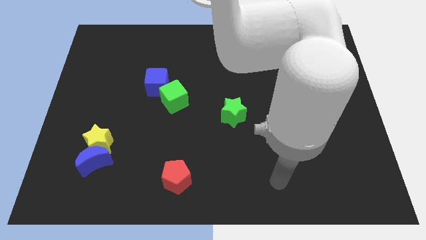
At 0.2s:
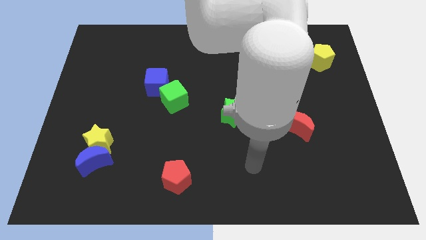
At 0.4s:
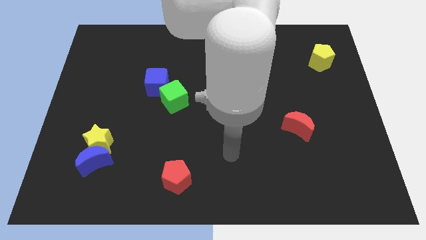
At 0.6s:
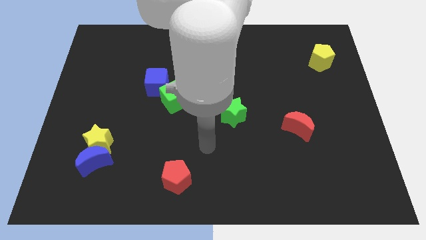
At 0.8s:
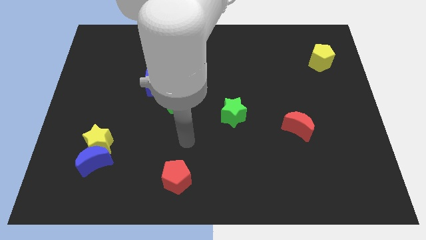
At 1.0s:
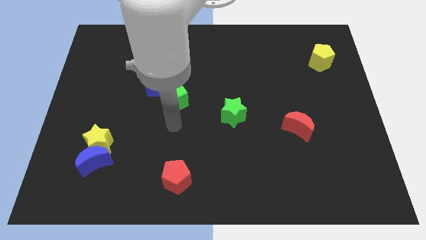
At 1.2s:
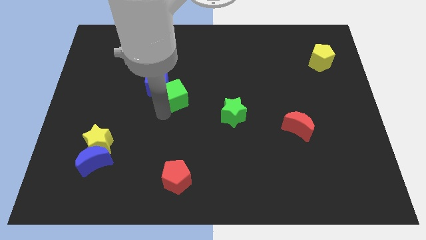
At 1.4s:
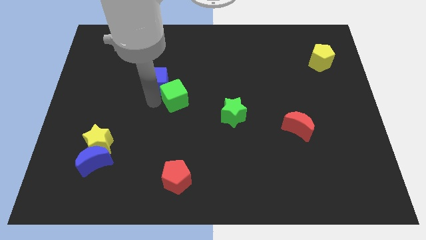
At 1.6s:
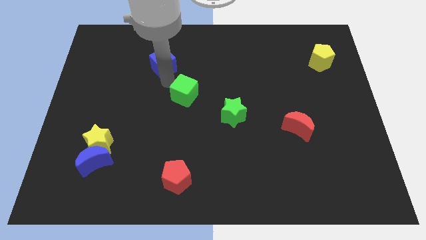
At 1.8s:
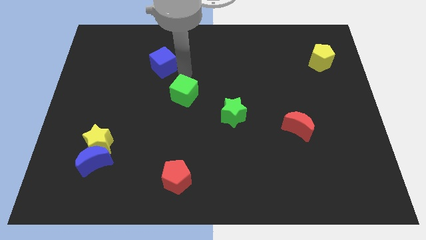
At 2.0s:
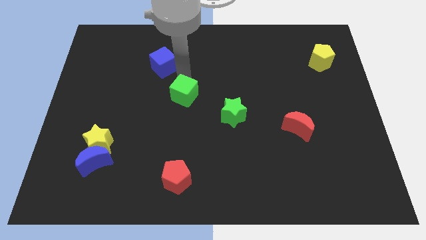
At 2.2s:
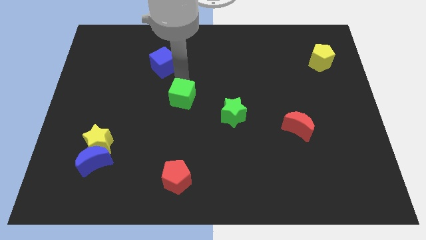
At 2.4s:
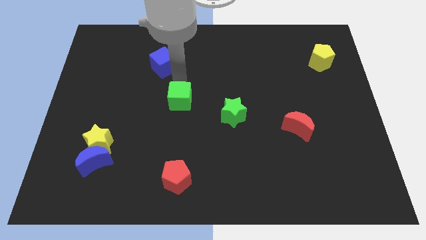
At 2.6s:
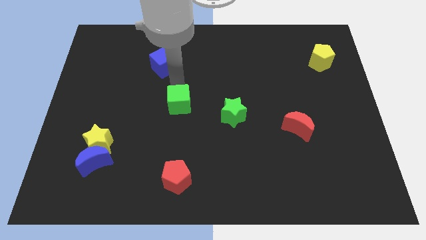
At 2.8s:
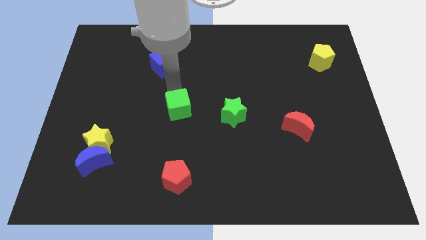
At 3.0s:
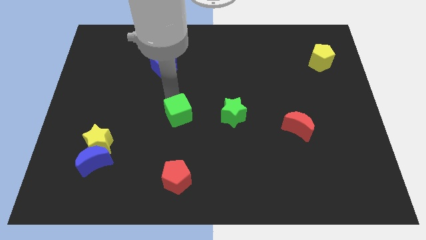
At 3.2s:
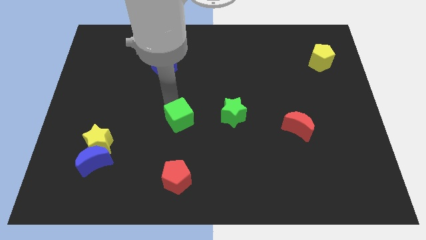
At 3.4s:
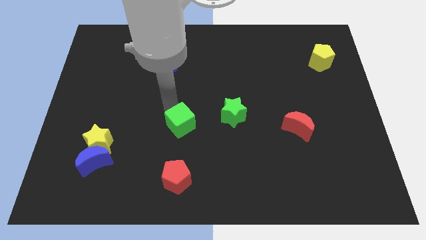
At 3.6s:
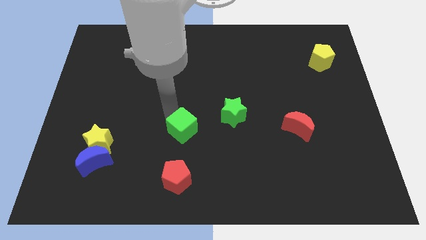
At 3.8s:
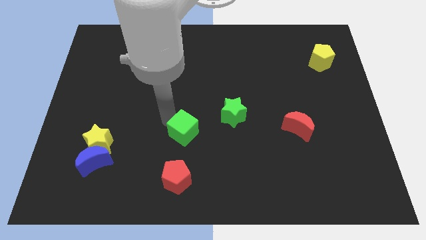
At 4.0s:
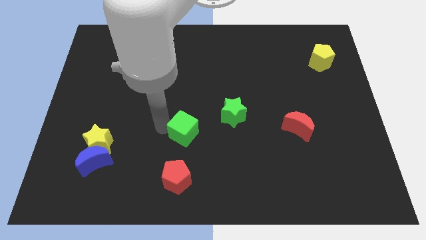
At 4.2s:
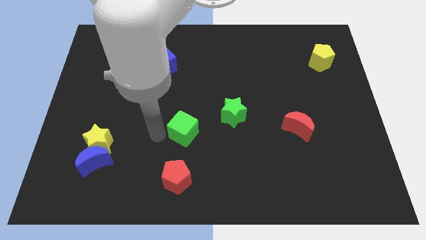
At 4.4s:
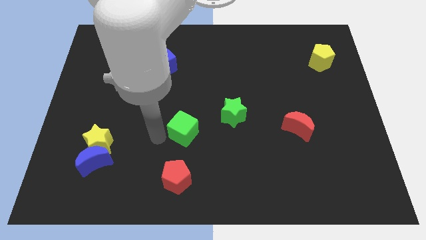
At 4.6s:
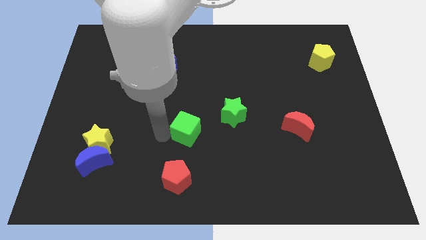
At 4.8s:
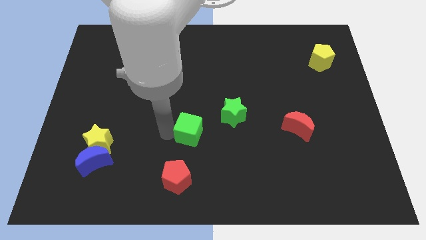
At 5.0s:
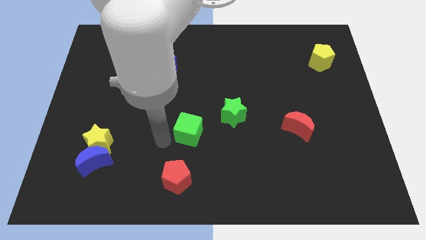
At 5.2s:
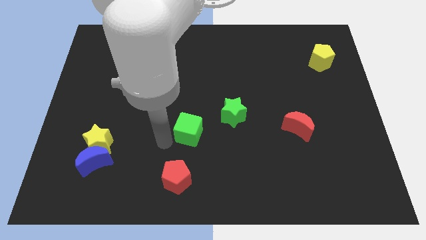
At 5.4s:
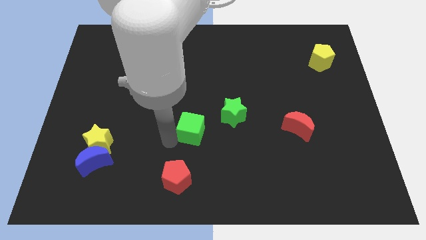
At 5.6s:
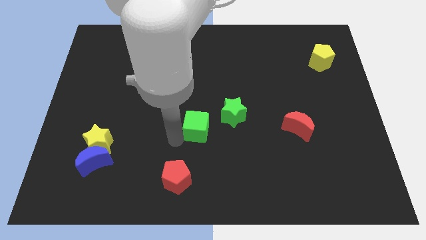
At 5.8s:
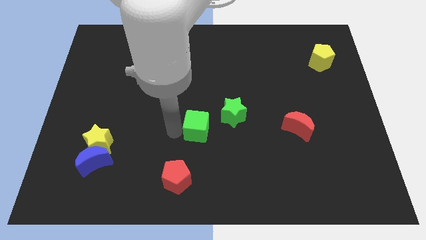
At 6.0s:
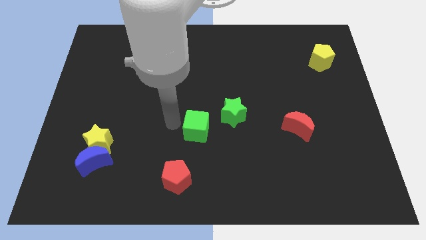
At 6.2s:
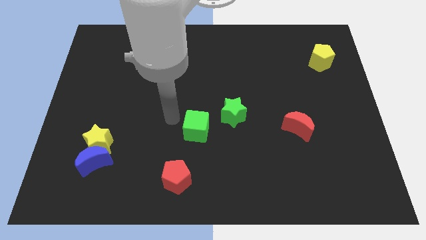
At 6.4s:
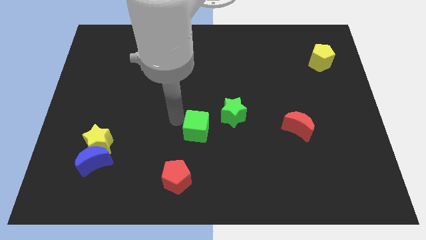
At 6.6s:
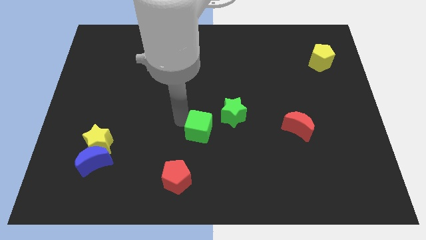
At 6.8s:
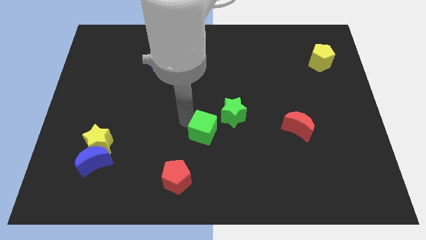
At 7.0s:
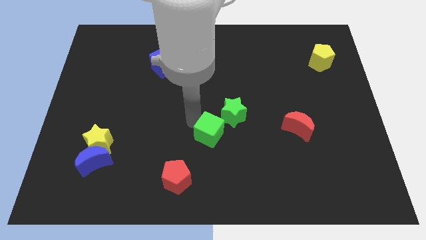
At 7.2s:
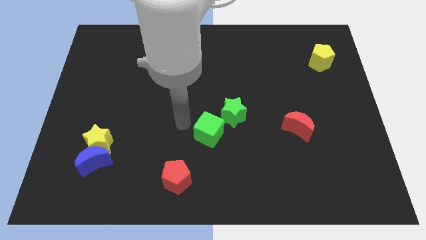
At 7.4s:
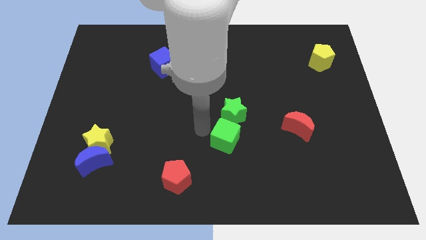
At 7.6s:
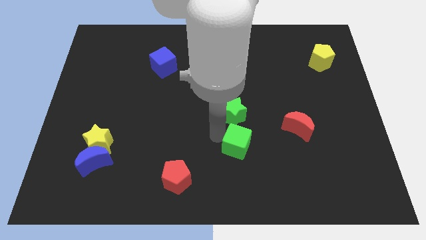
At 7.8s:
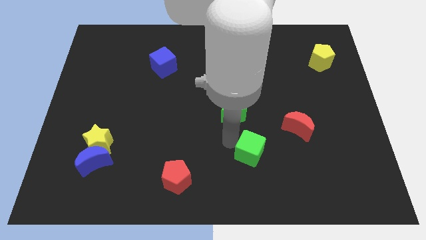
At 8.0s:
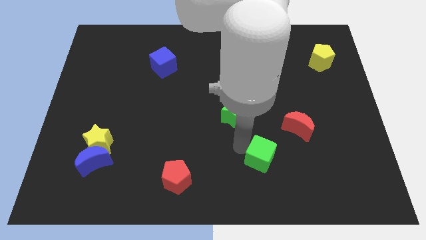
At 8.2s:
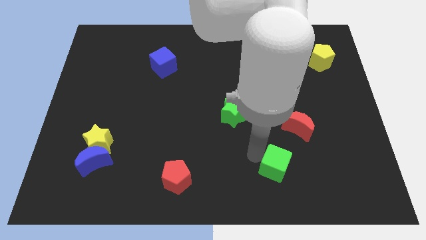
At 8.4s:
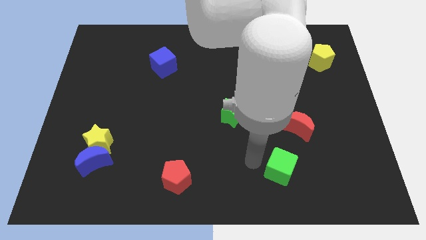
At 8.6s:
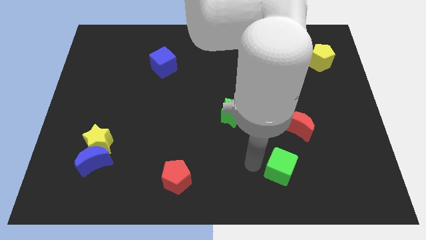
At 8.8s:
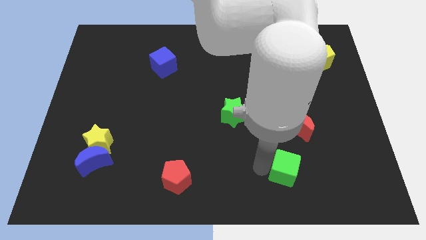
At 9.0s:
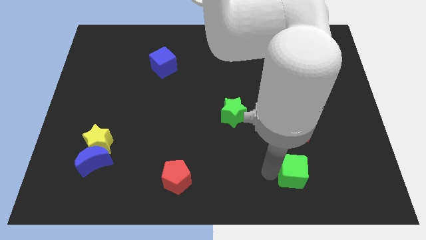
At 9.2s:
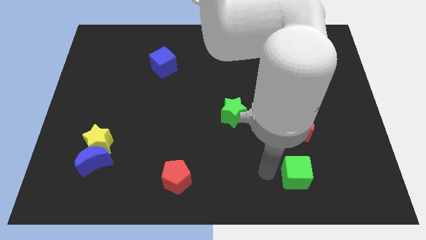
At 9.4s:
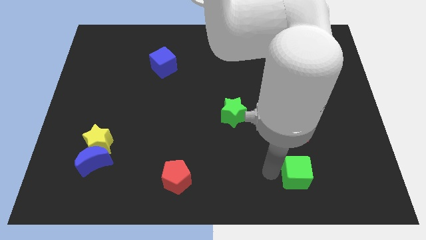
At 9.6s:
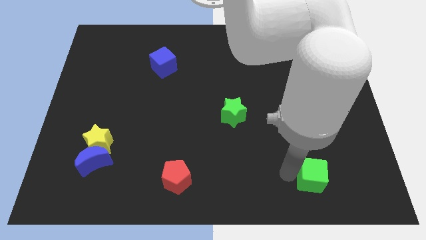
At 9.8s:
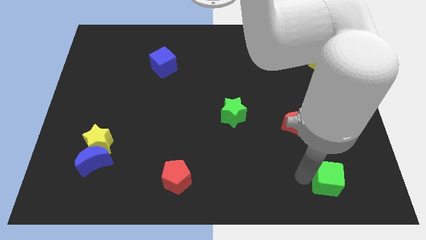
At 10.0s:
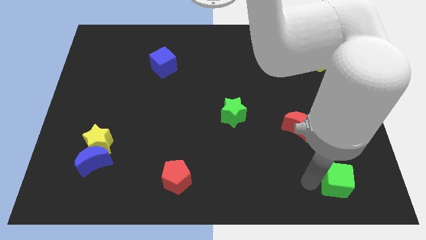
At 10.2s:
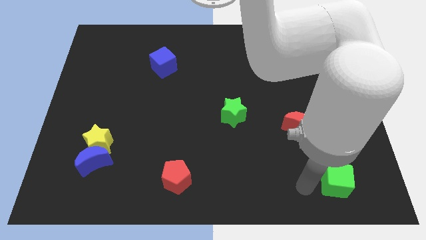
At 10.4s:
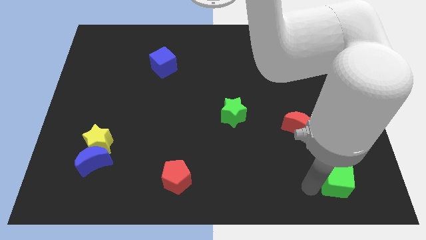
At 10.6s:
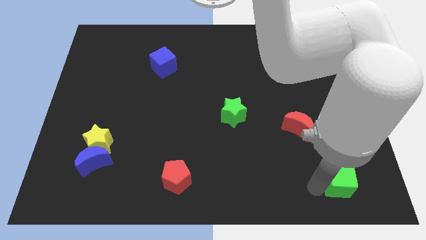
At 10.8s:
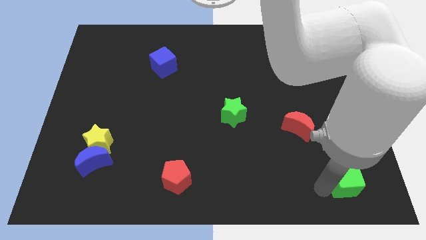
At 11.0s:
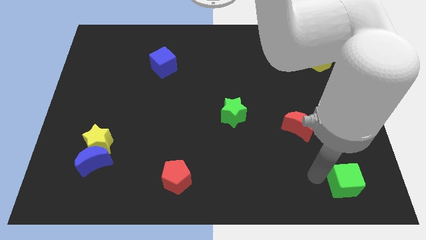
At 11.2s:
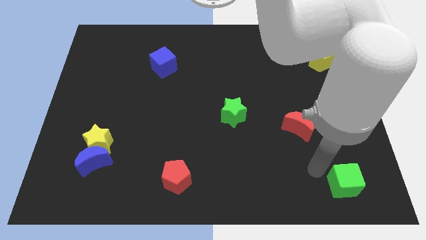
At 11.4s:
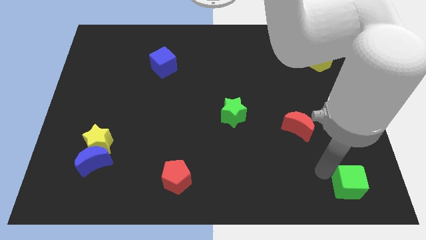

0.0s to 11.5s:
put the green cube to the bottom right corner

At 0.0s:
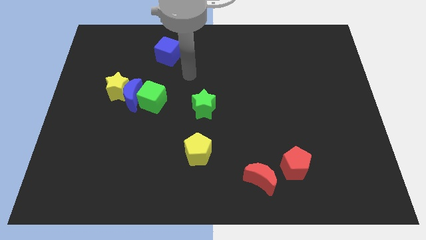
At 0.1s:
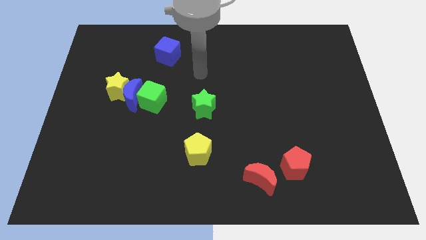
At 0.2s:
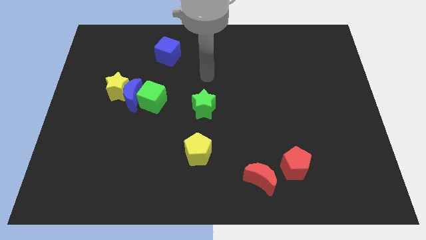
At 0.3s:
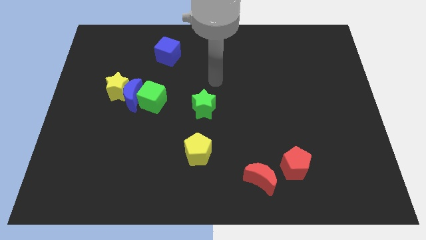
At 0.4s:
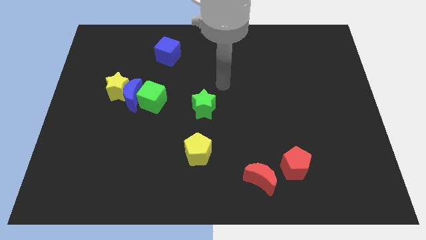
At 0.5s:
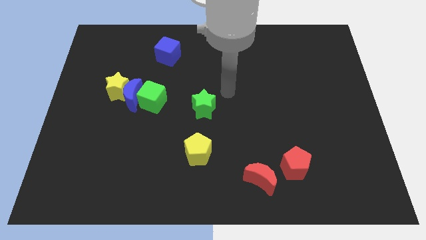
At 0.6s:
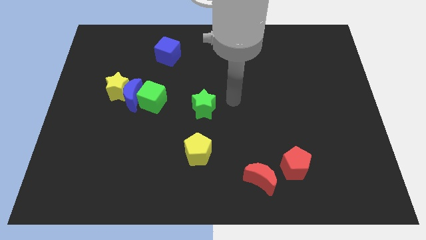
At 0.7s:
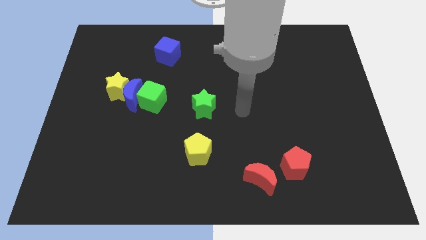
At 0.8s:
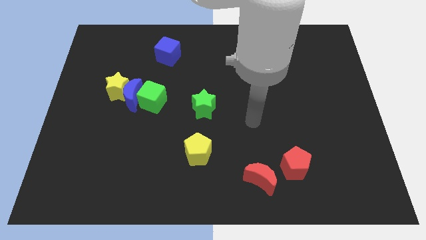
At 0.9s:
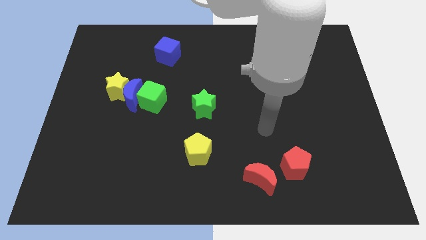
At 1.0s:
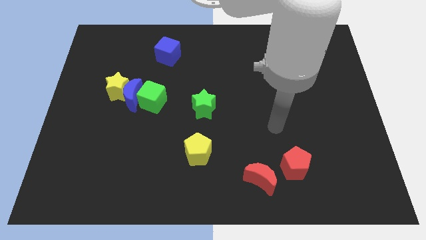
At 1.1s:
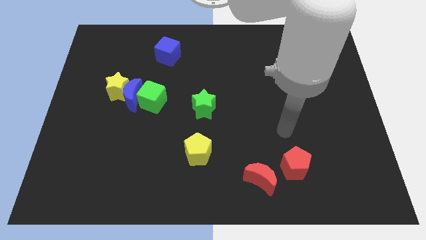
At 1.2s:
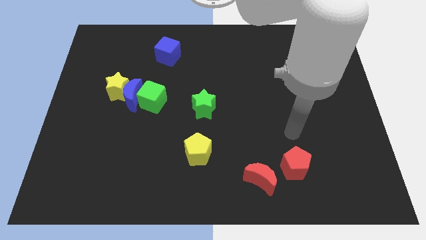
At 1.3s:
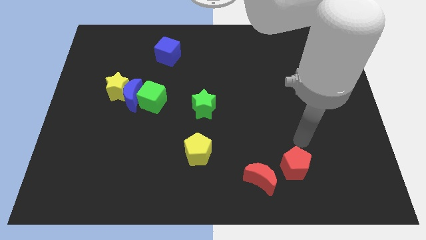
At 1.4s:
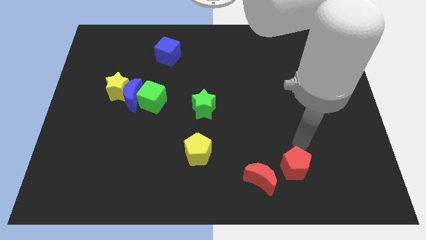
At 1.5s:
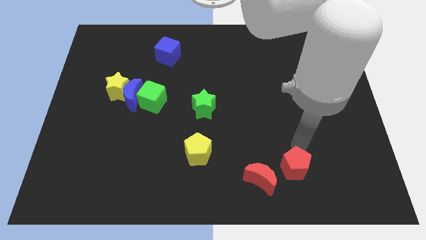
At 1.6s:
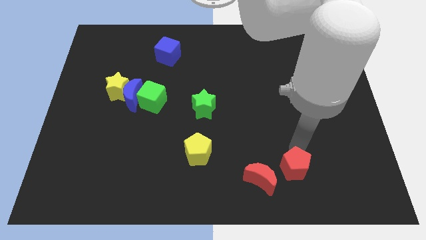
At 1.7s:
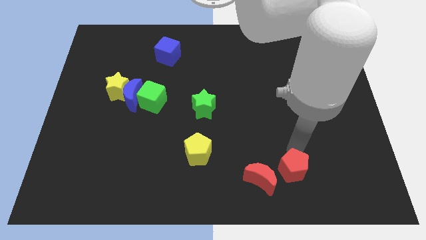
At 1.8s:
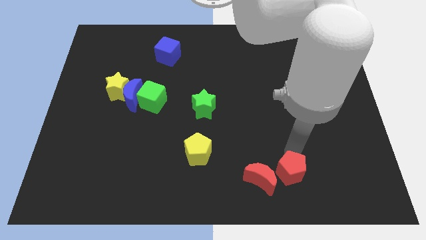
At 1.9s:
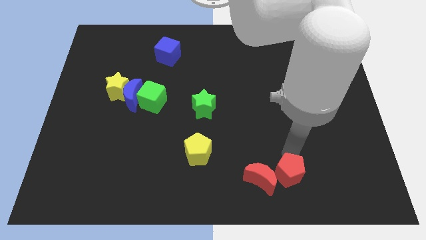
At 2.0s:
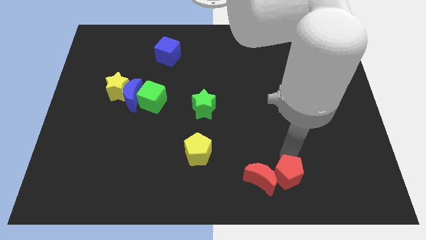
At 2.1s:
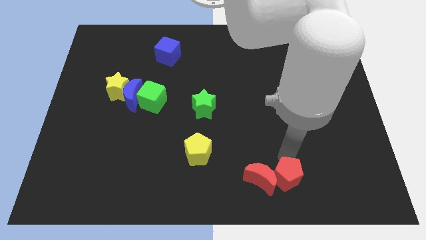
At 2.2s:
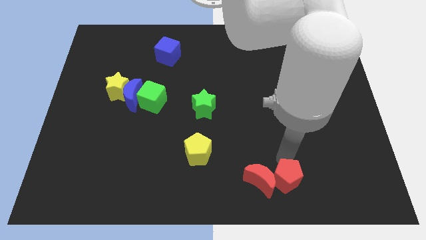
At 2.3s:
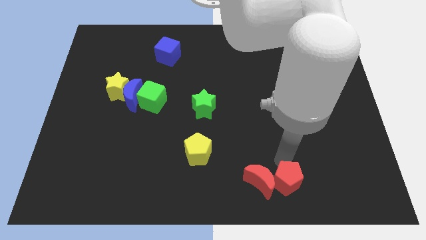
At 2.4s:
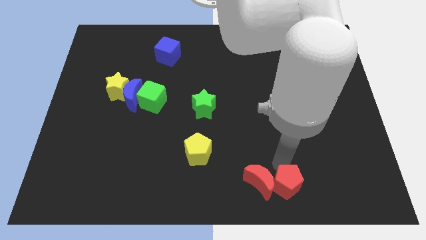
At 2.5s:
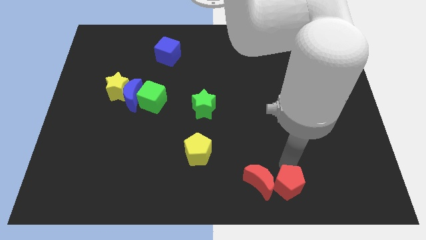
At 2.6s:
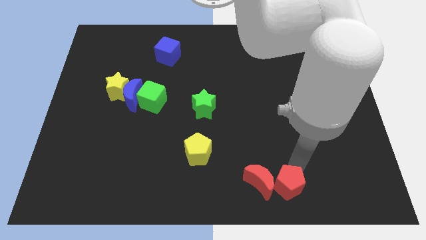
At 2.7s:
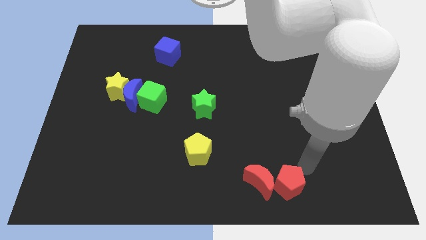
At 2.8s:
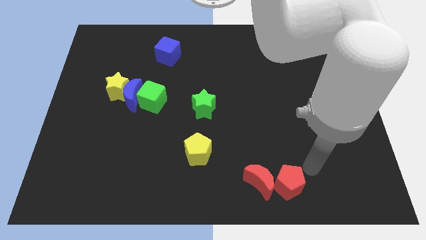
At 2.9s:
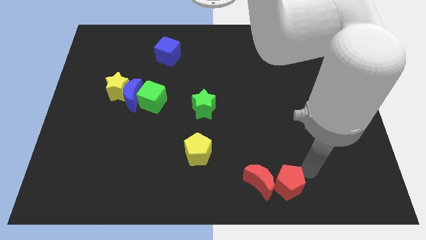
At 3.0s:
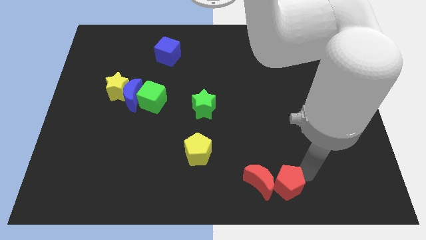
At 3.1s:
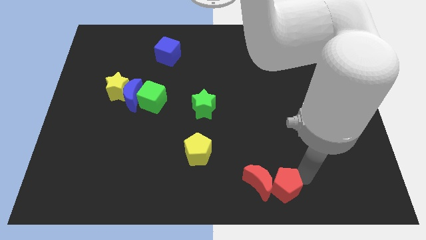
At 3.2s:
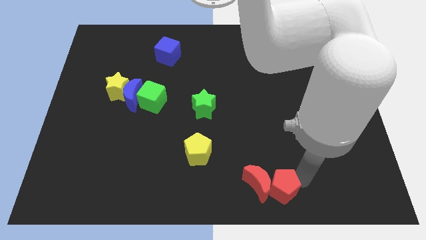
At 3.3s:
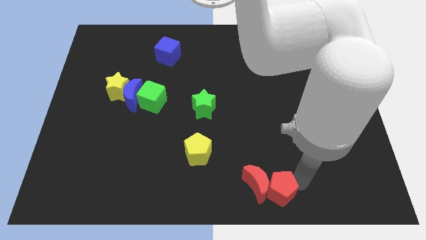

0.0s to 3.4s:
put the red pentagon to the bottom
